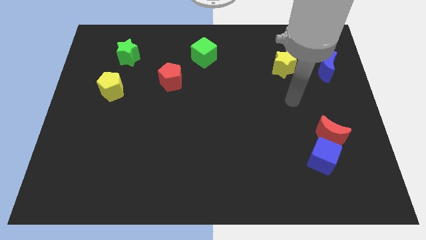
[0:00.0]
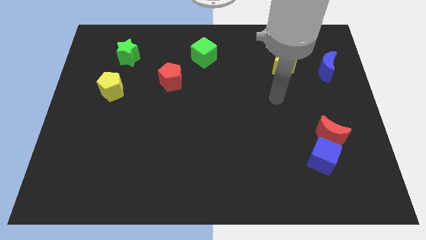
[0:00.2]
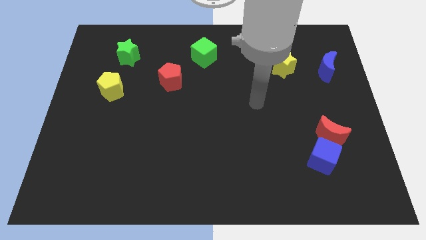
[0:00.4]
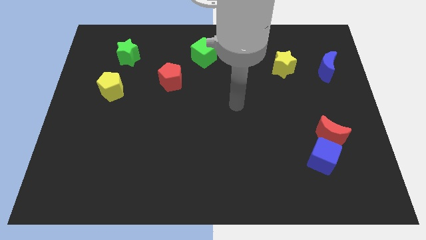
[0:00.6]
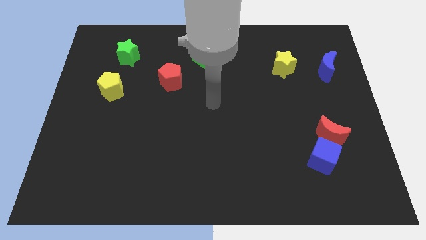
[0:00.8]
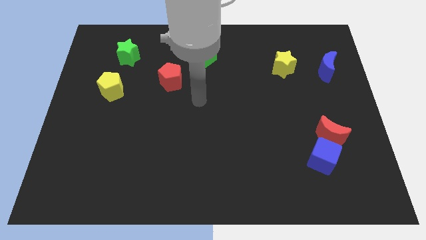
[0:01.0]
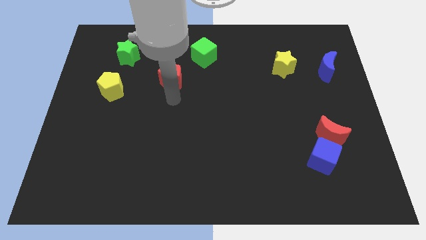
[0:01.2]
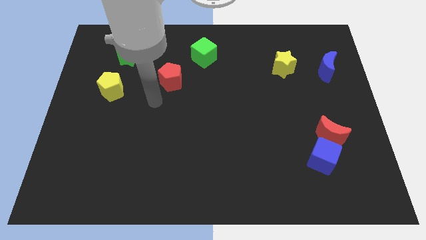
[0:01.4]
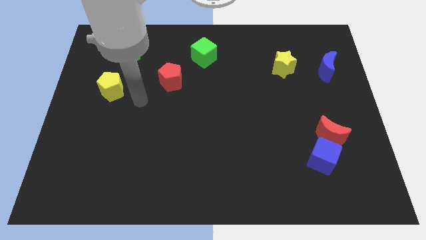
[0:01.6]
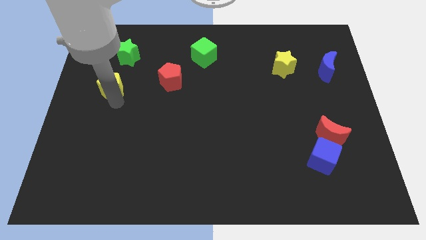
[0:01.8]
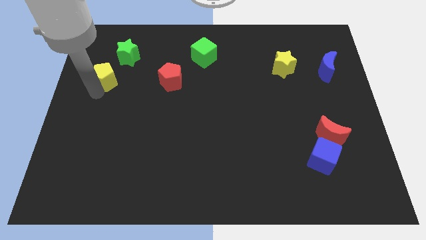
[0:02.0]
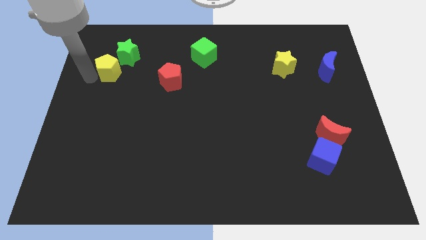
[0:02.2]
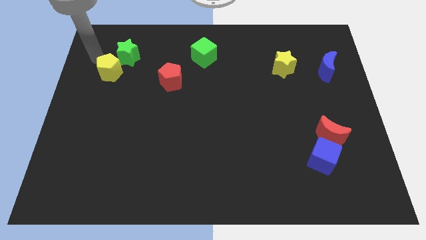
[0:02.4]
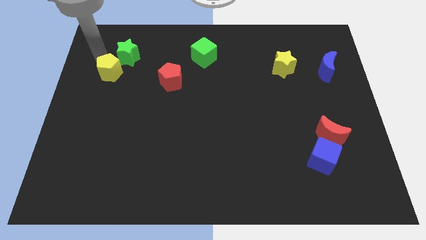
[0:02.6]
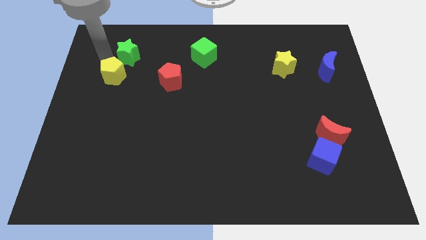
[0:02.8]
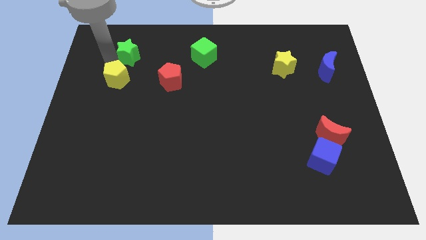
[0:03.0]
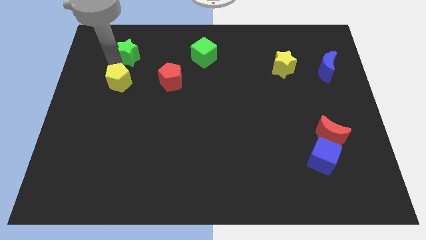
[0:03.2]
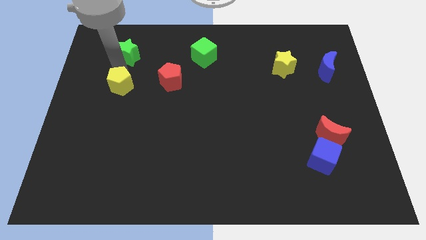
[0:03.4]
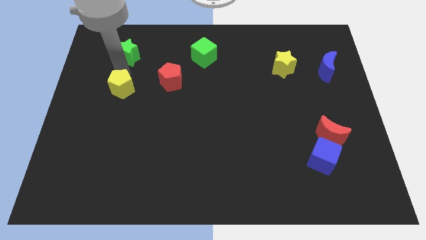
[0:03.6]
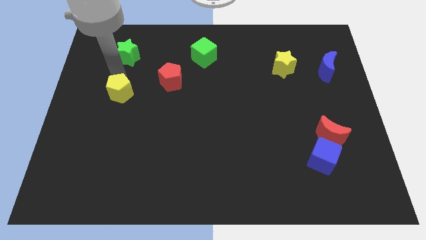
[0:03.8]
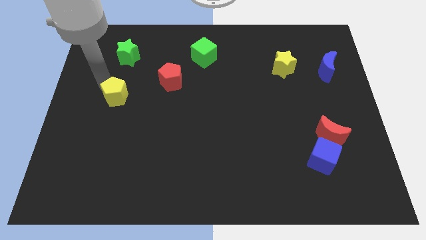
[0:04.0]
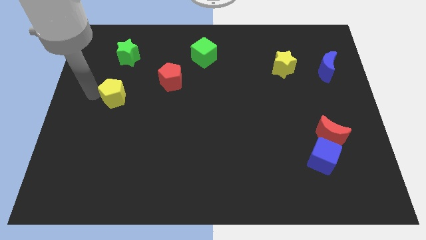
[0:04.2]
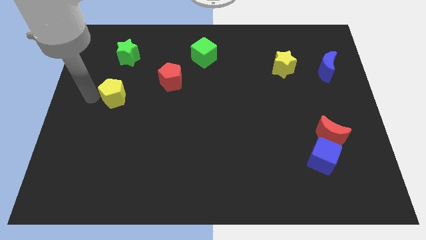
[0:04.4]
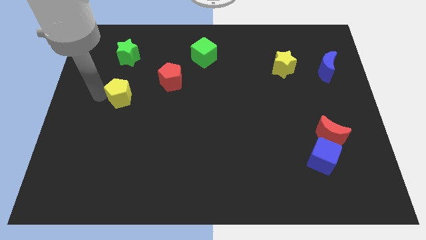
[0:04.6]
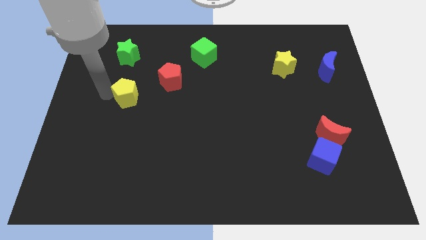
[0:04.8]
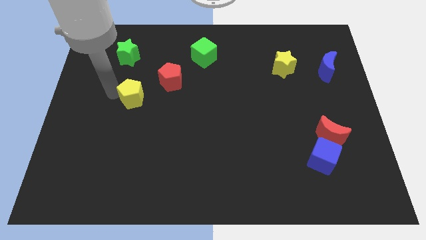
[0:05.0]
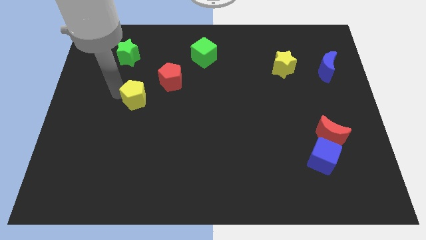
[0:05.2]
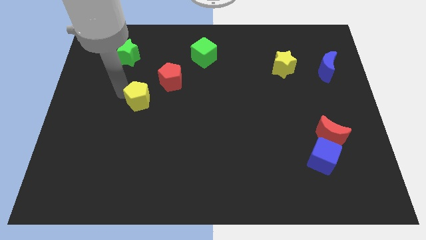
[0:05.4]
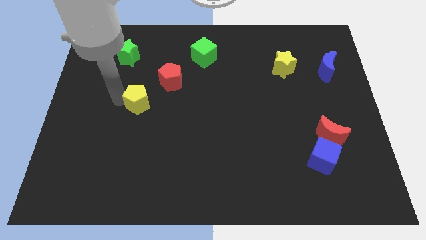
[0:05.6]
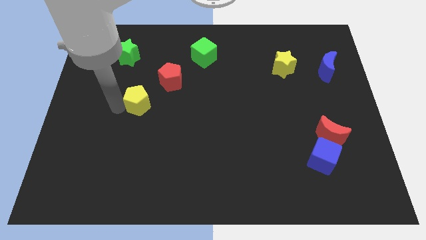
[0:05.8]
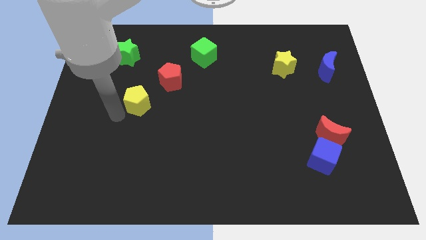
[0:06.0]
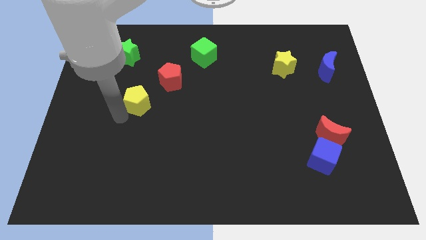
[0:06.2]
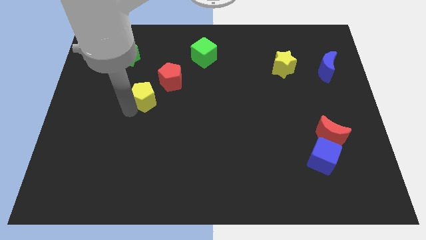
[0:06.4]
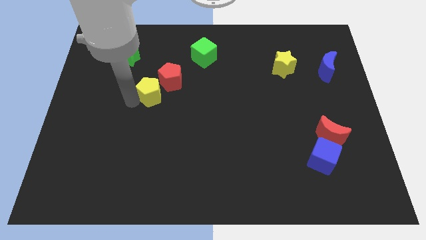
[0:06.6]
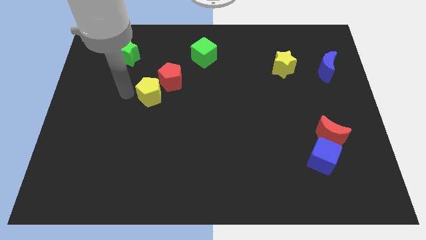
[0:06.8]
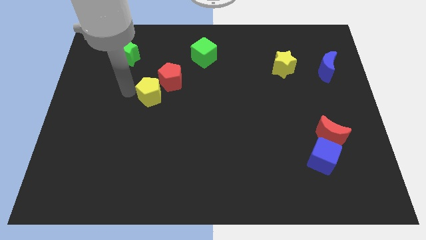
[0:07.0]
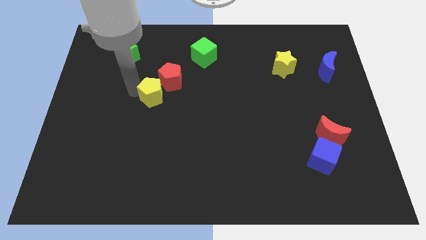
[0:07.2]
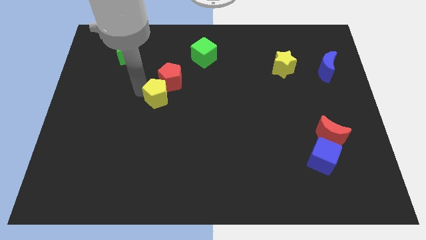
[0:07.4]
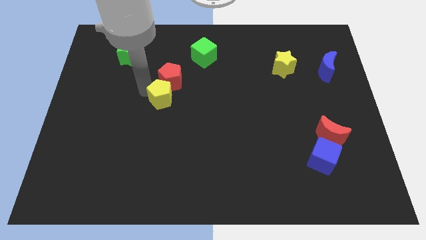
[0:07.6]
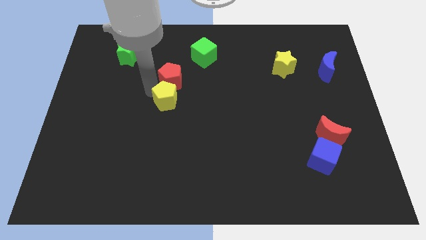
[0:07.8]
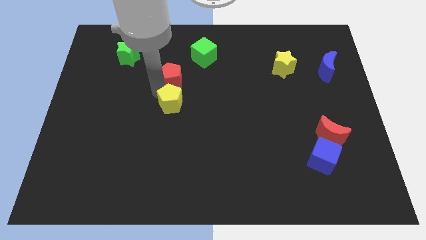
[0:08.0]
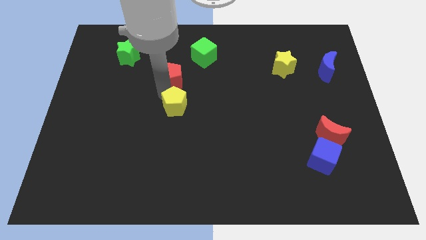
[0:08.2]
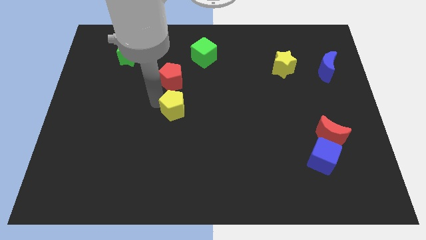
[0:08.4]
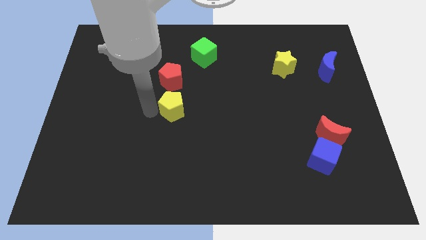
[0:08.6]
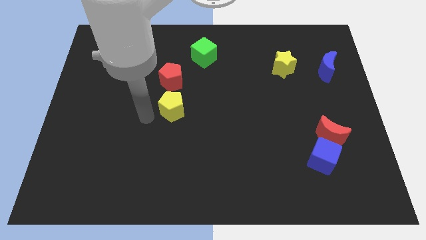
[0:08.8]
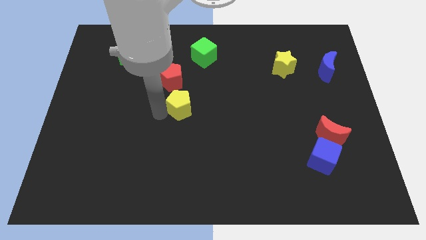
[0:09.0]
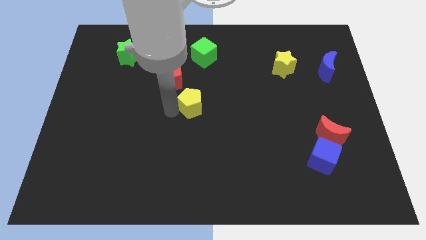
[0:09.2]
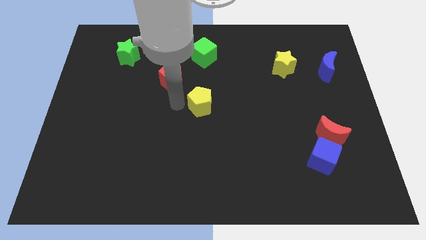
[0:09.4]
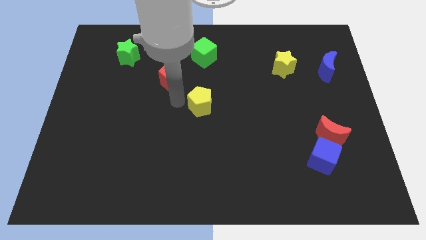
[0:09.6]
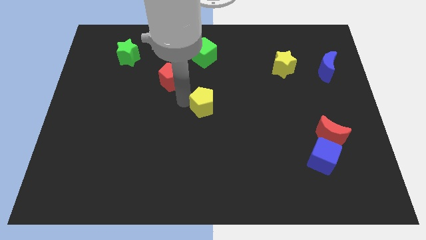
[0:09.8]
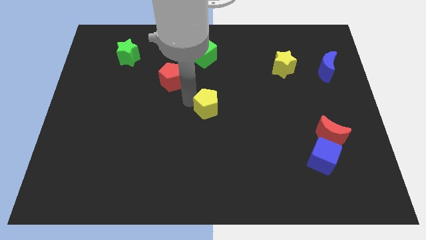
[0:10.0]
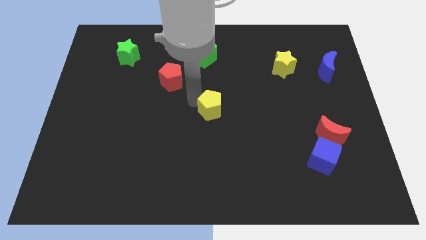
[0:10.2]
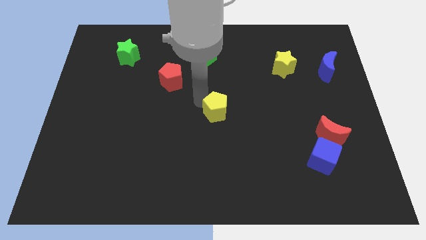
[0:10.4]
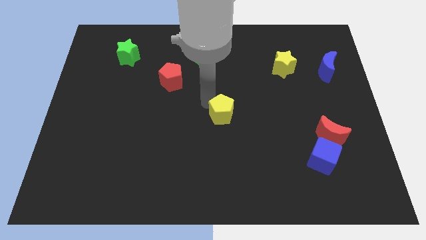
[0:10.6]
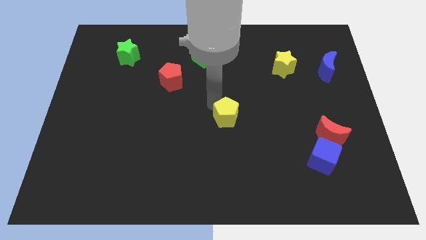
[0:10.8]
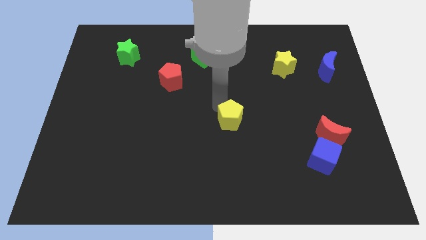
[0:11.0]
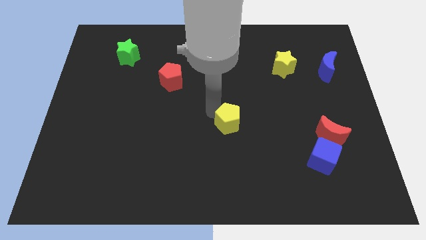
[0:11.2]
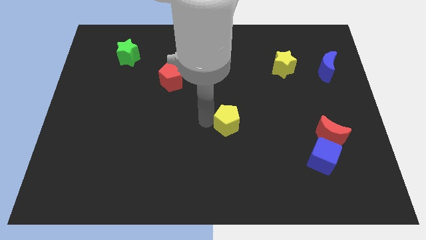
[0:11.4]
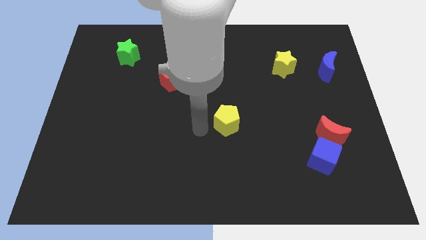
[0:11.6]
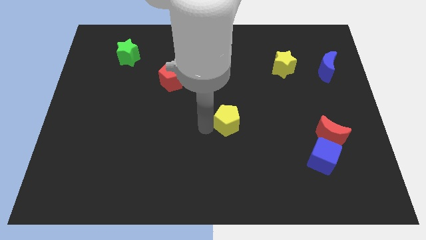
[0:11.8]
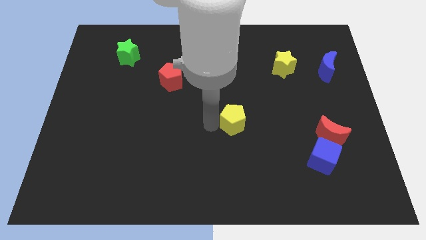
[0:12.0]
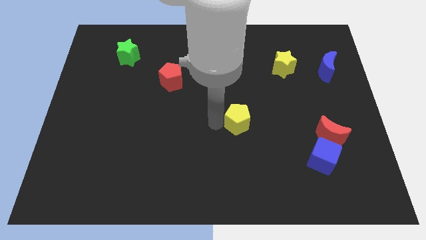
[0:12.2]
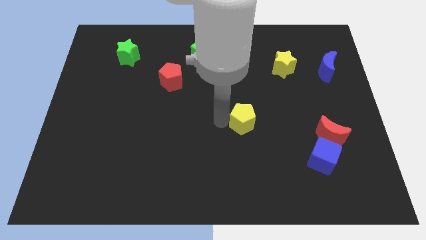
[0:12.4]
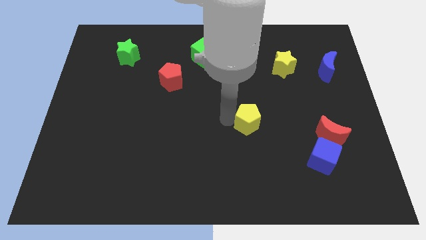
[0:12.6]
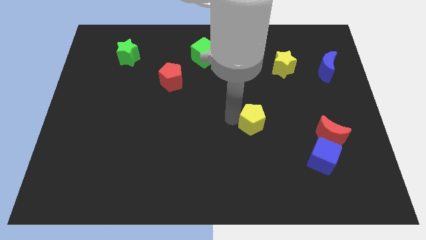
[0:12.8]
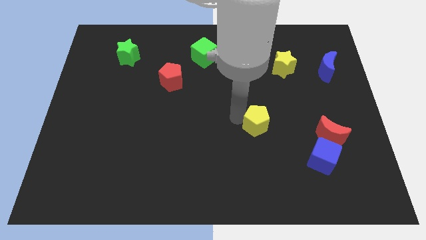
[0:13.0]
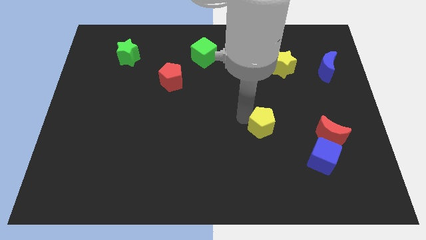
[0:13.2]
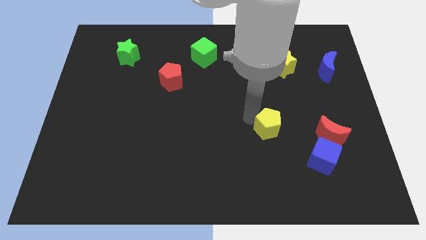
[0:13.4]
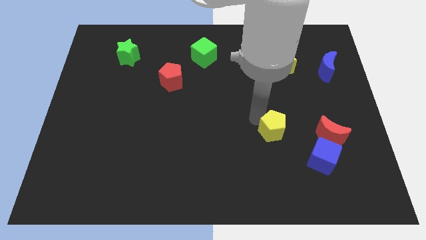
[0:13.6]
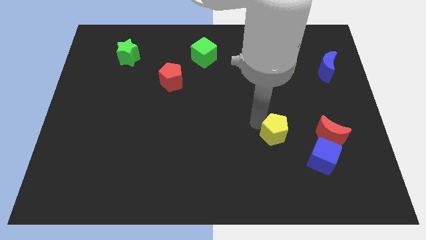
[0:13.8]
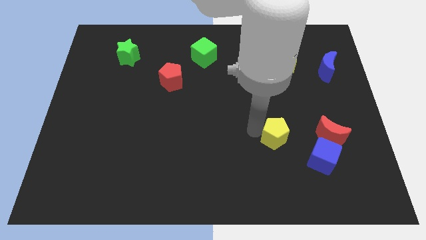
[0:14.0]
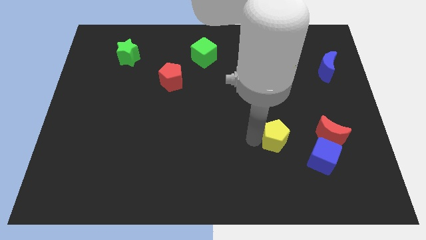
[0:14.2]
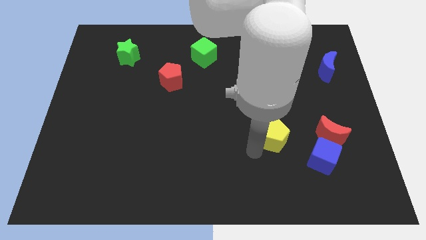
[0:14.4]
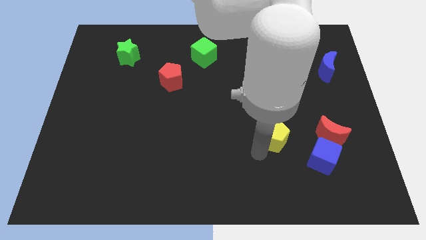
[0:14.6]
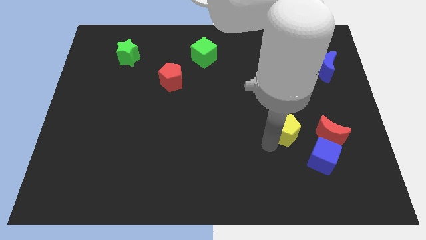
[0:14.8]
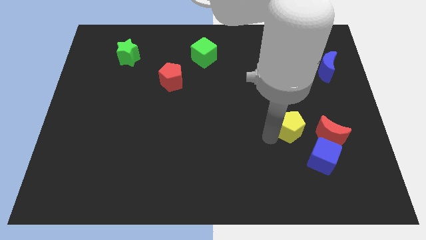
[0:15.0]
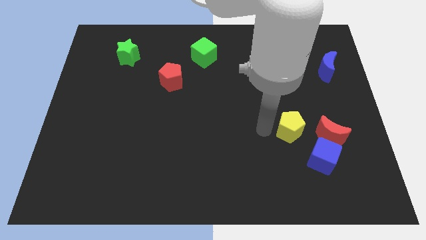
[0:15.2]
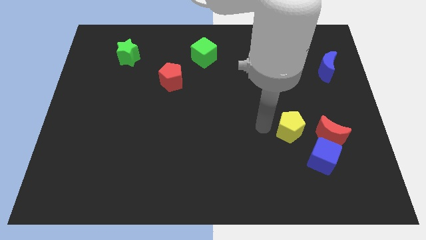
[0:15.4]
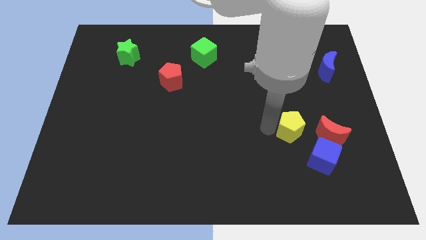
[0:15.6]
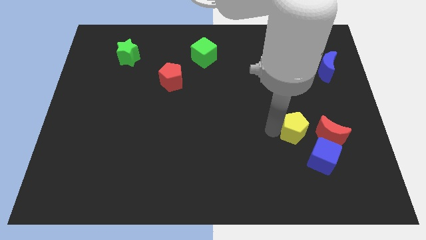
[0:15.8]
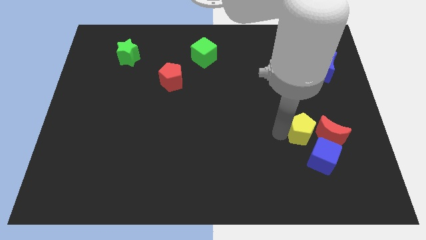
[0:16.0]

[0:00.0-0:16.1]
slide the yellow pentagon close to the red moon
